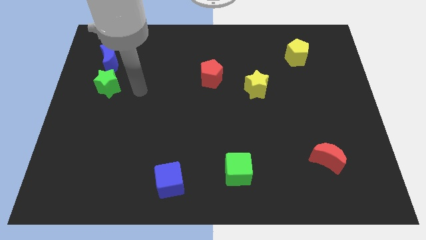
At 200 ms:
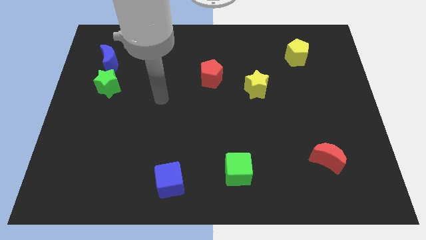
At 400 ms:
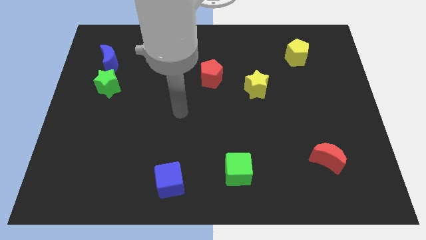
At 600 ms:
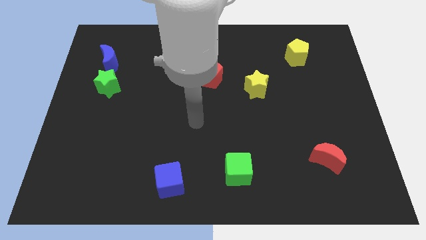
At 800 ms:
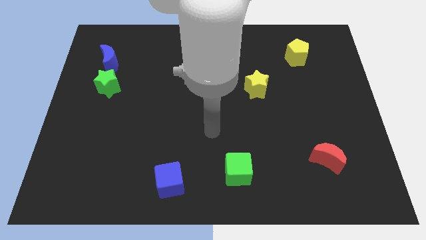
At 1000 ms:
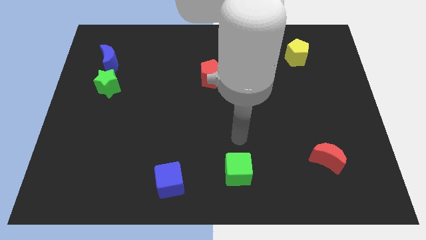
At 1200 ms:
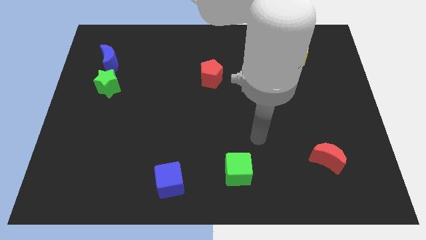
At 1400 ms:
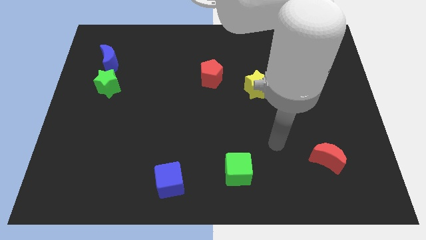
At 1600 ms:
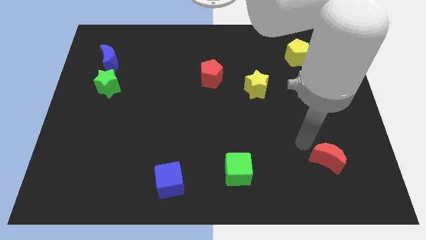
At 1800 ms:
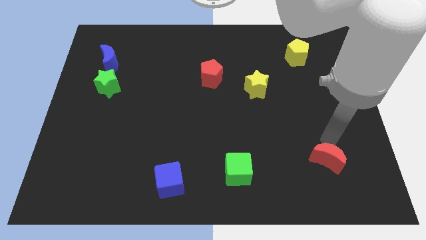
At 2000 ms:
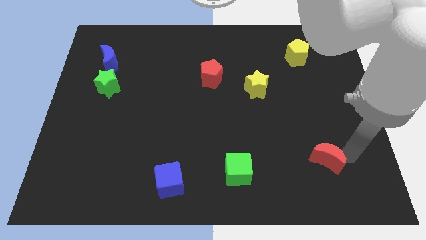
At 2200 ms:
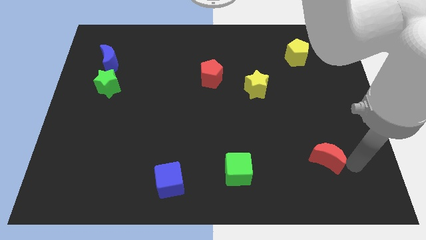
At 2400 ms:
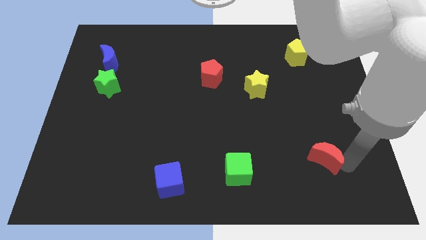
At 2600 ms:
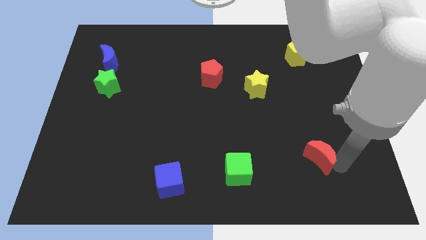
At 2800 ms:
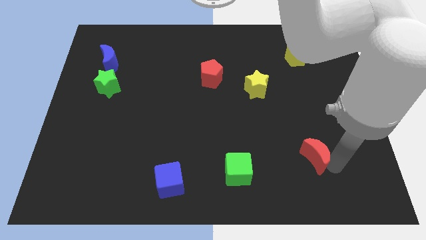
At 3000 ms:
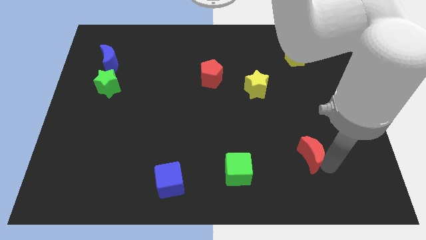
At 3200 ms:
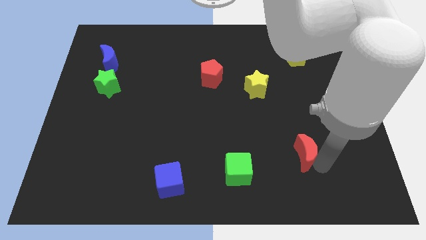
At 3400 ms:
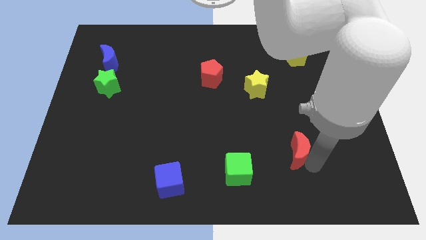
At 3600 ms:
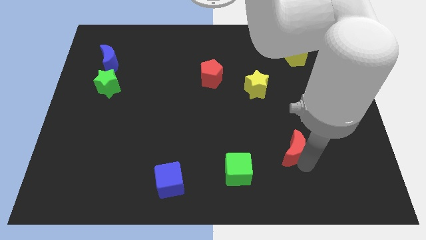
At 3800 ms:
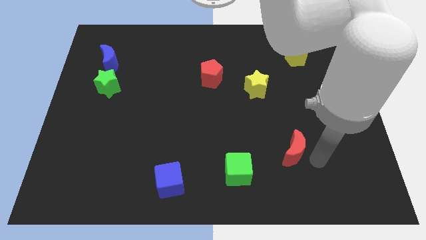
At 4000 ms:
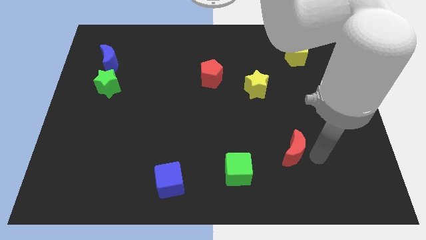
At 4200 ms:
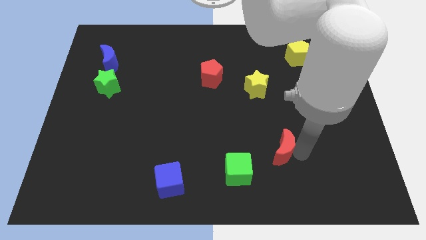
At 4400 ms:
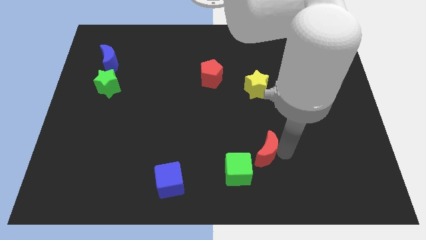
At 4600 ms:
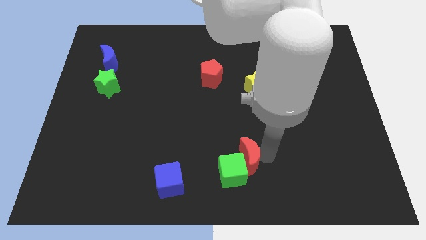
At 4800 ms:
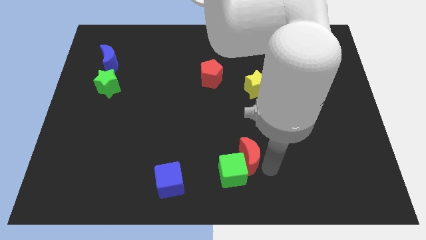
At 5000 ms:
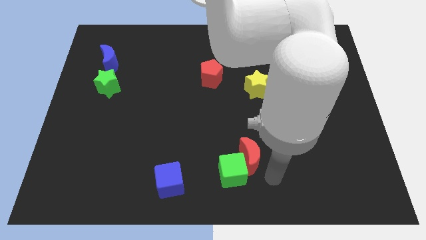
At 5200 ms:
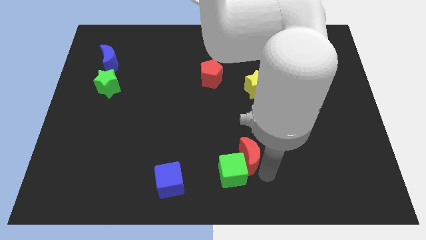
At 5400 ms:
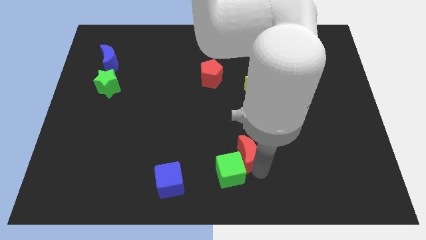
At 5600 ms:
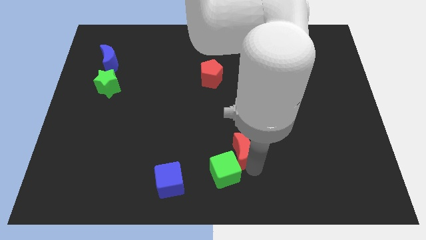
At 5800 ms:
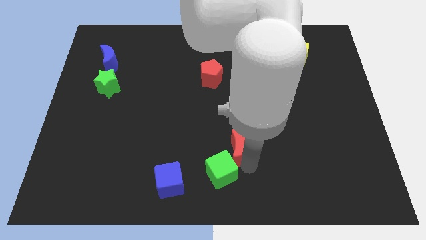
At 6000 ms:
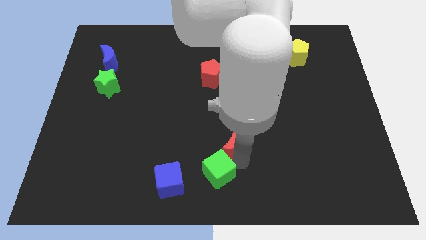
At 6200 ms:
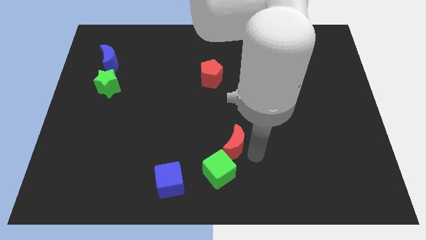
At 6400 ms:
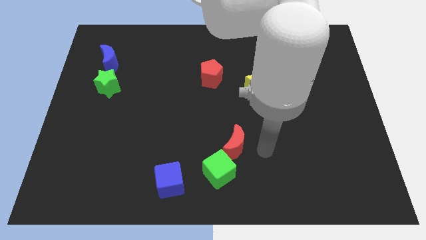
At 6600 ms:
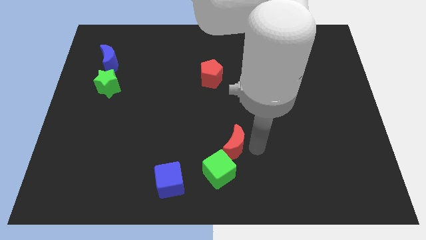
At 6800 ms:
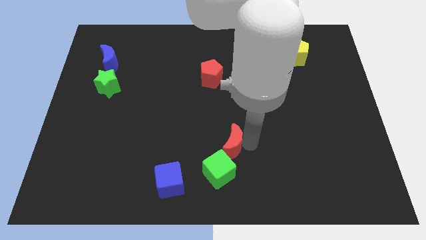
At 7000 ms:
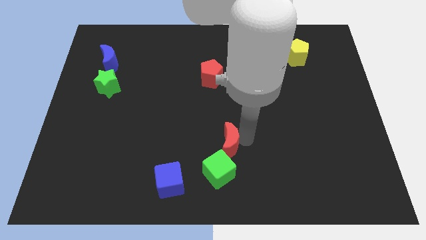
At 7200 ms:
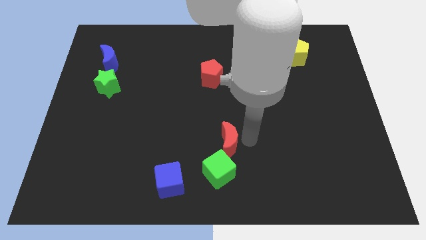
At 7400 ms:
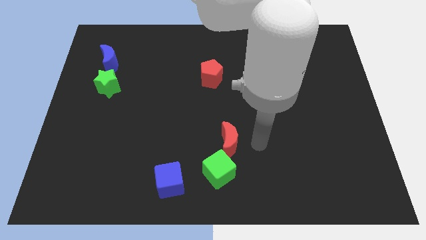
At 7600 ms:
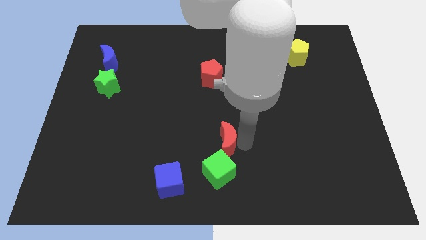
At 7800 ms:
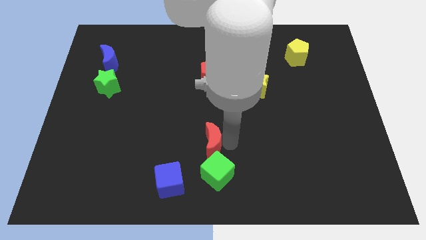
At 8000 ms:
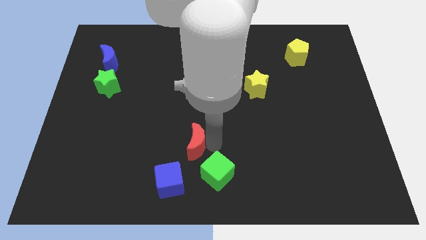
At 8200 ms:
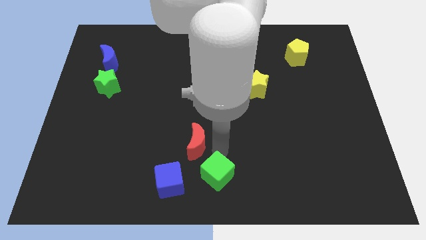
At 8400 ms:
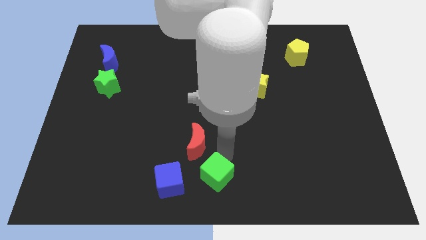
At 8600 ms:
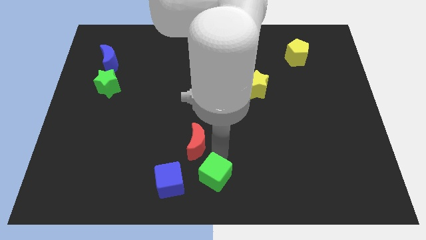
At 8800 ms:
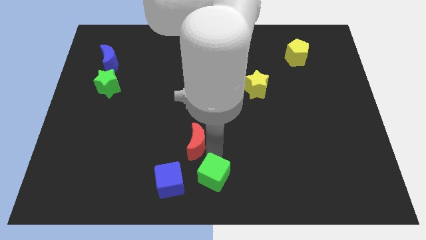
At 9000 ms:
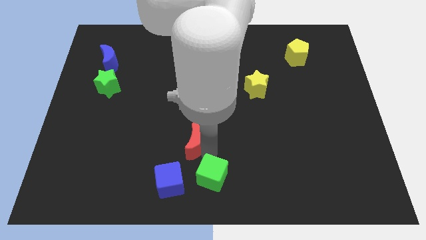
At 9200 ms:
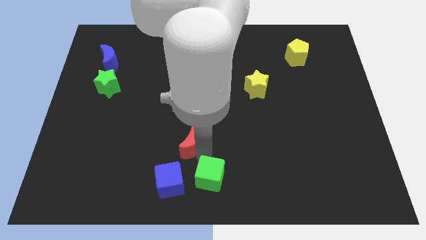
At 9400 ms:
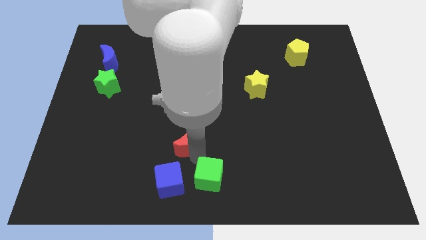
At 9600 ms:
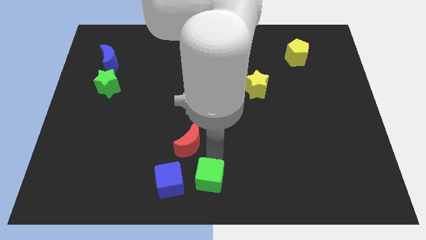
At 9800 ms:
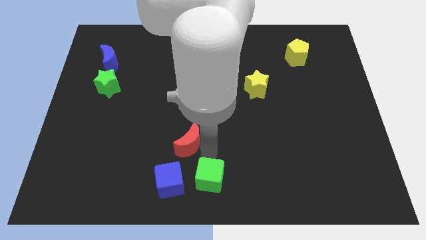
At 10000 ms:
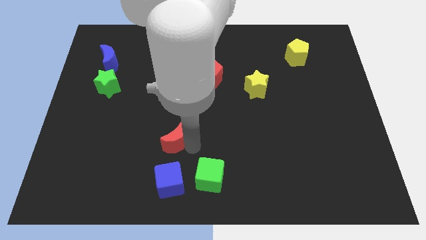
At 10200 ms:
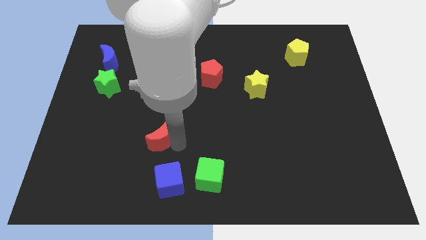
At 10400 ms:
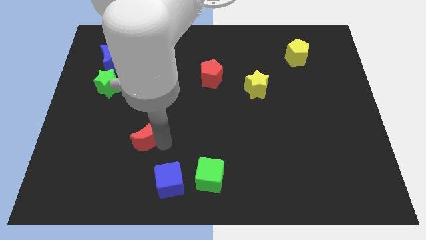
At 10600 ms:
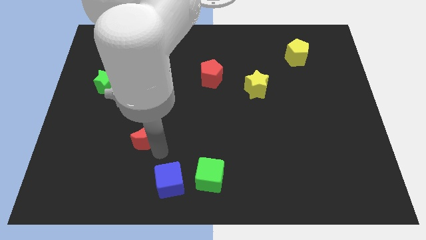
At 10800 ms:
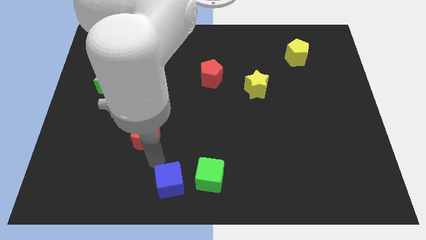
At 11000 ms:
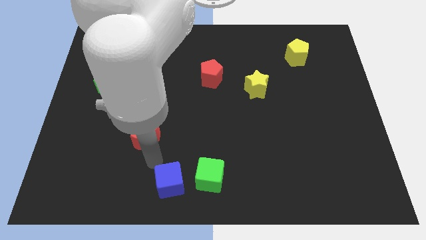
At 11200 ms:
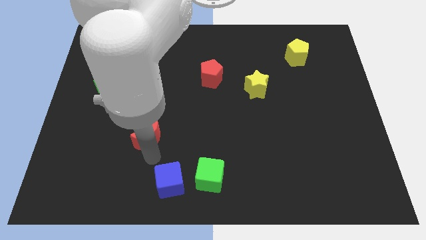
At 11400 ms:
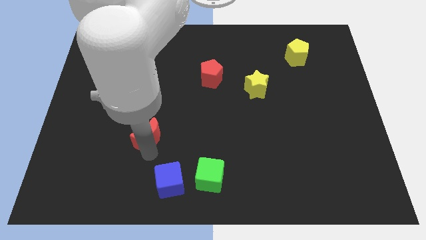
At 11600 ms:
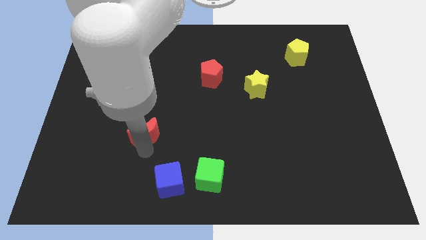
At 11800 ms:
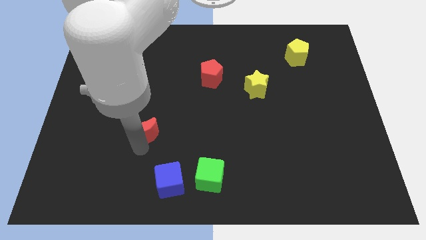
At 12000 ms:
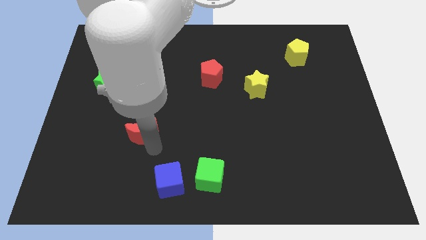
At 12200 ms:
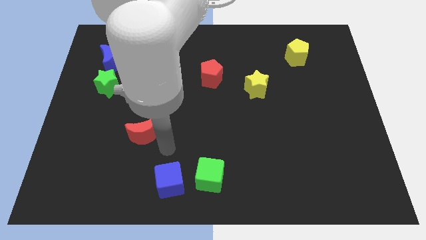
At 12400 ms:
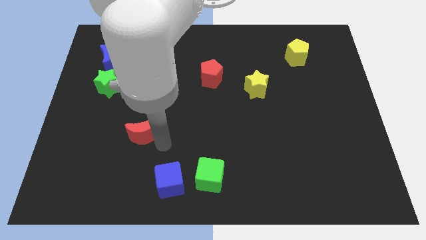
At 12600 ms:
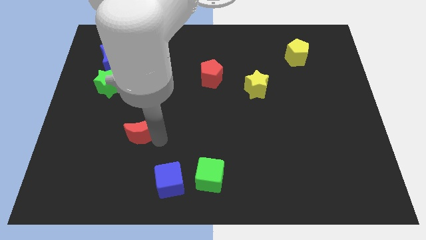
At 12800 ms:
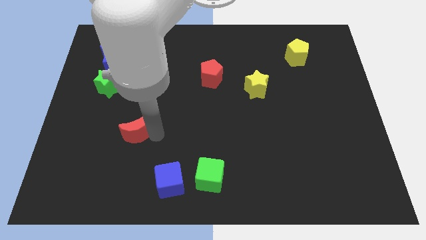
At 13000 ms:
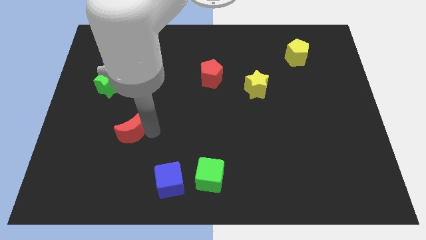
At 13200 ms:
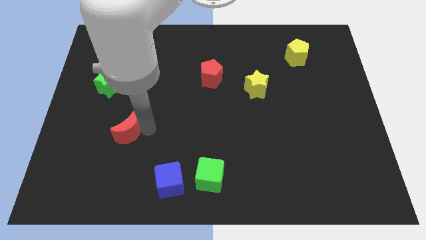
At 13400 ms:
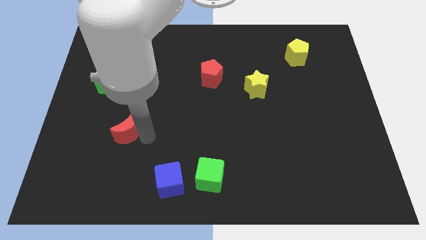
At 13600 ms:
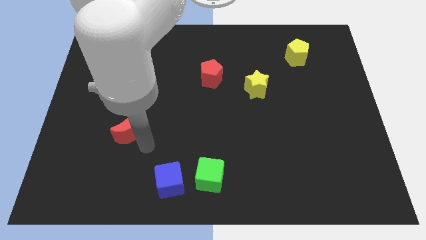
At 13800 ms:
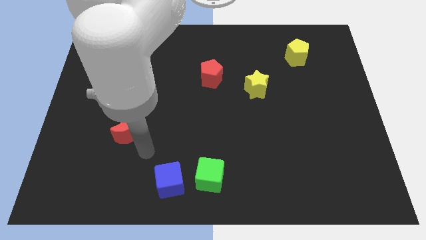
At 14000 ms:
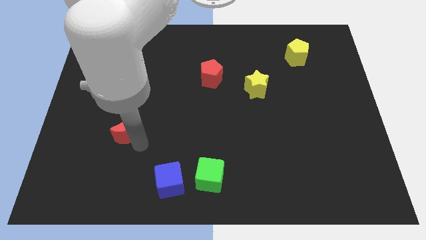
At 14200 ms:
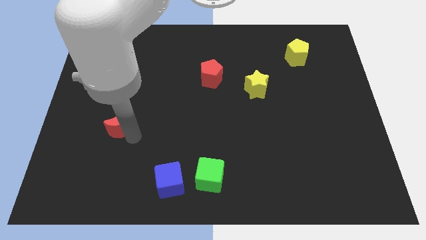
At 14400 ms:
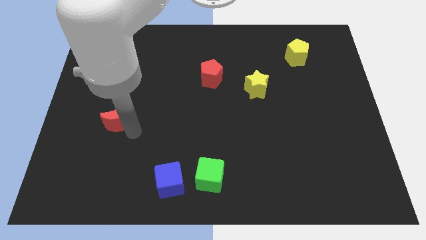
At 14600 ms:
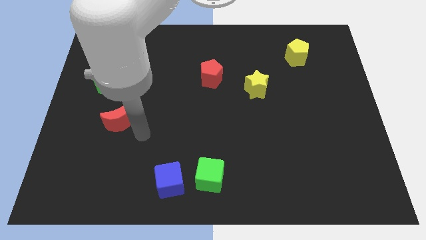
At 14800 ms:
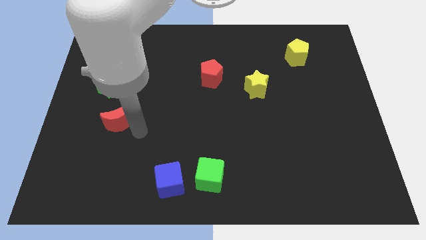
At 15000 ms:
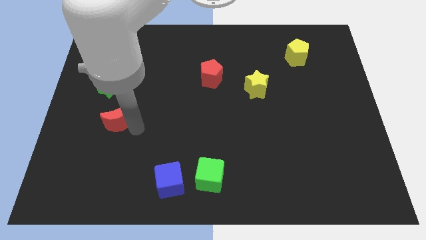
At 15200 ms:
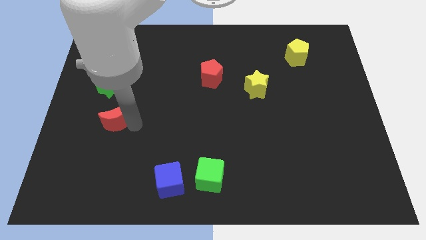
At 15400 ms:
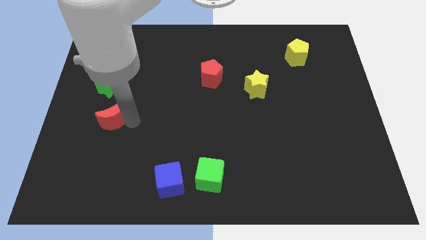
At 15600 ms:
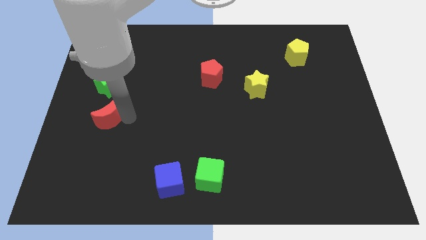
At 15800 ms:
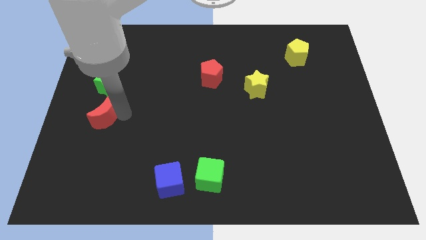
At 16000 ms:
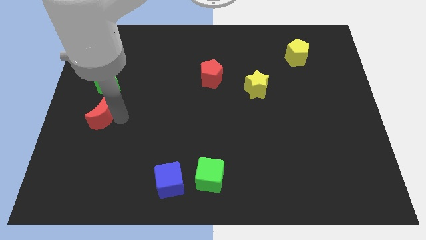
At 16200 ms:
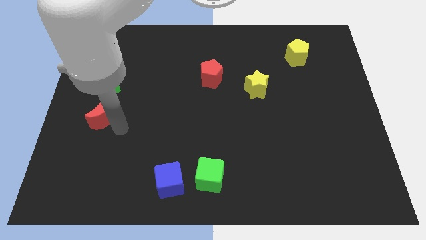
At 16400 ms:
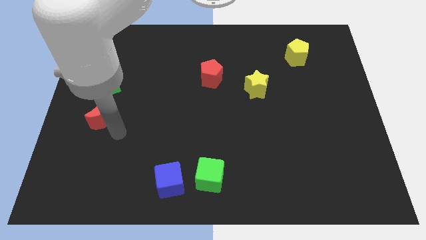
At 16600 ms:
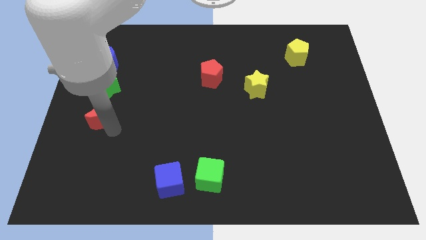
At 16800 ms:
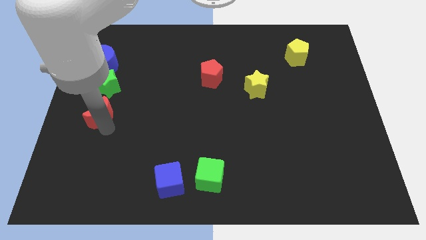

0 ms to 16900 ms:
push the red moon to the center left
